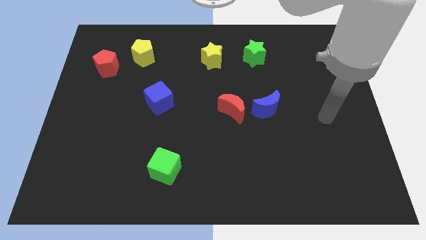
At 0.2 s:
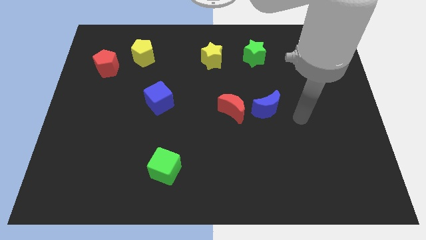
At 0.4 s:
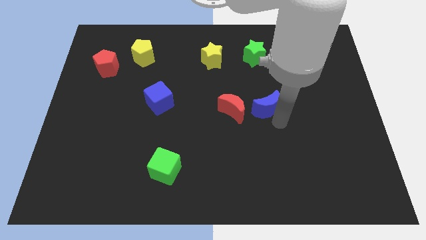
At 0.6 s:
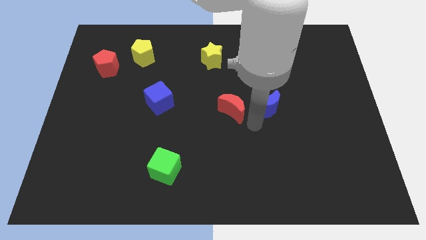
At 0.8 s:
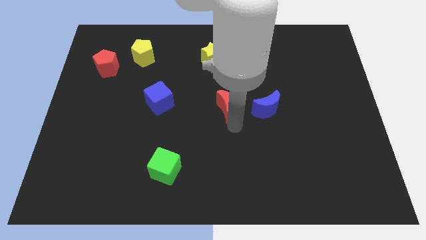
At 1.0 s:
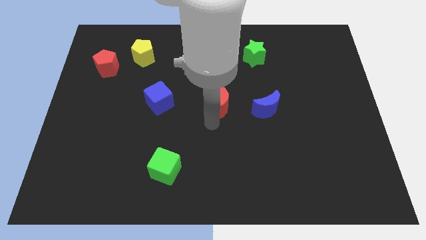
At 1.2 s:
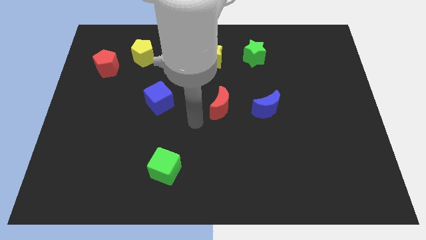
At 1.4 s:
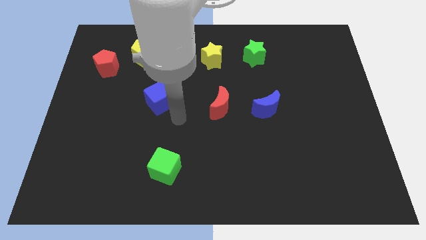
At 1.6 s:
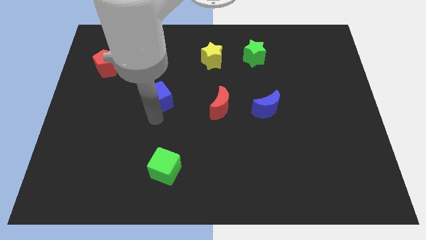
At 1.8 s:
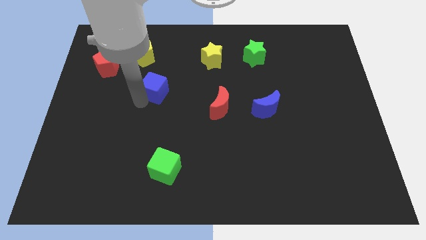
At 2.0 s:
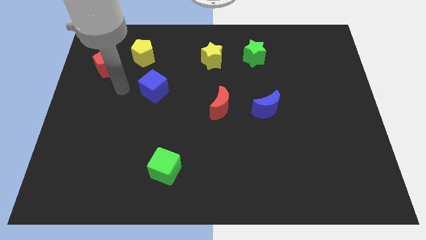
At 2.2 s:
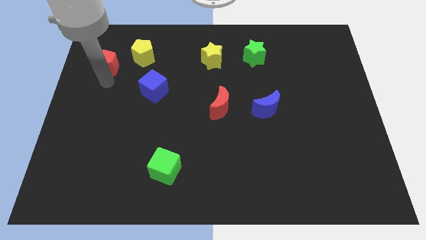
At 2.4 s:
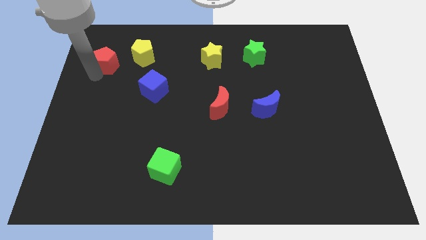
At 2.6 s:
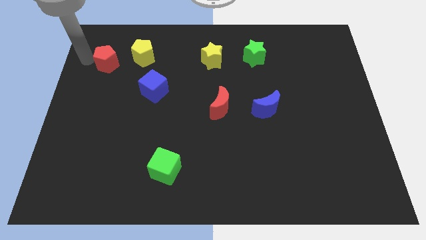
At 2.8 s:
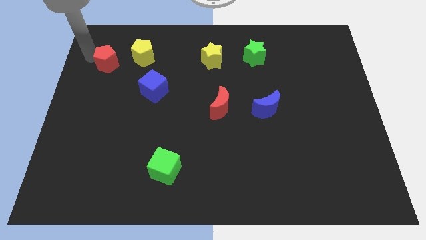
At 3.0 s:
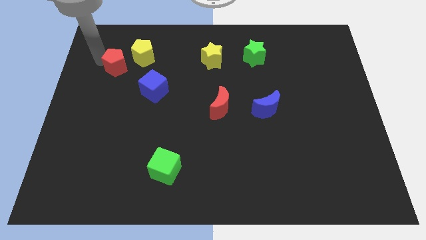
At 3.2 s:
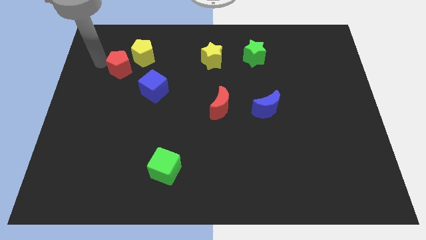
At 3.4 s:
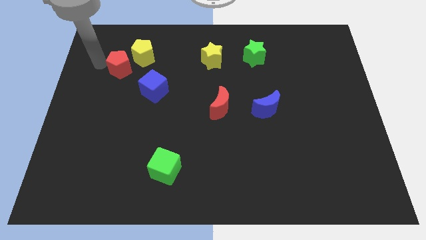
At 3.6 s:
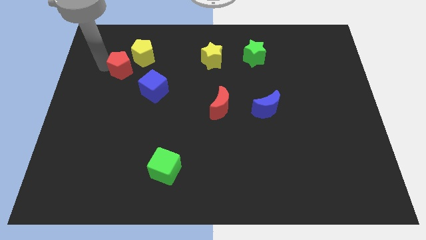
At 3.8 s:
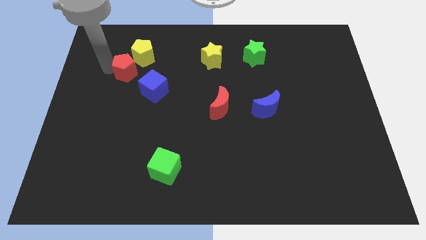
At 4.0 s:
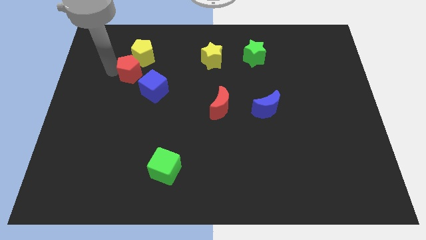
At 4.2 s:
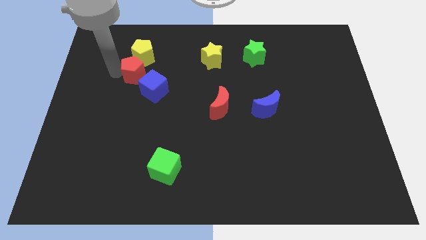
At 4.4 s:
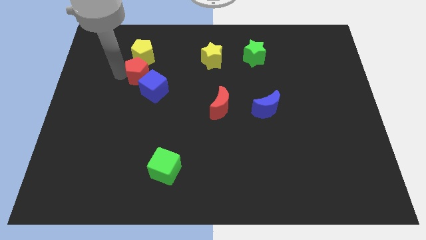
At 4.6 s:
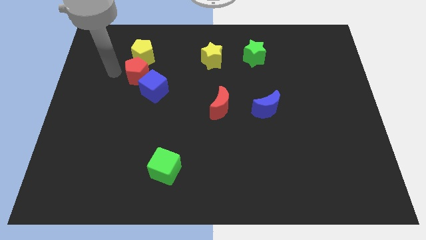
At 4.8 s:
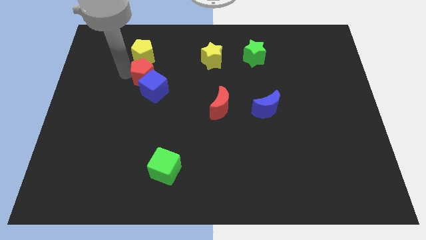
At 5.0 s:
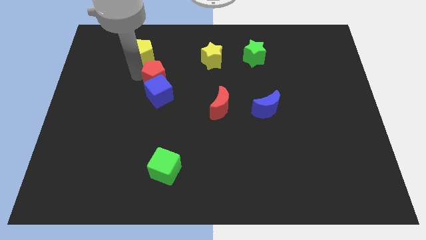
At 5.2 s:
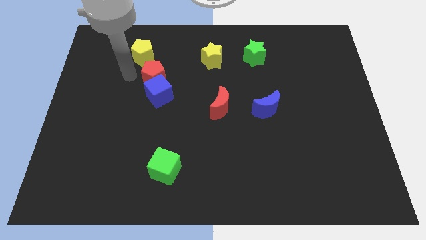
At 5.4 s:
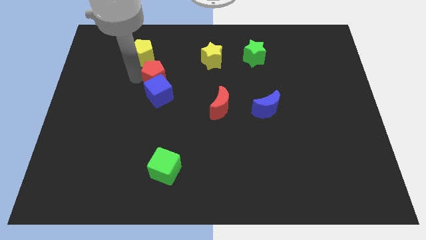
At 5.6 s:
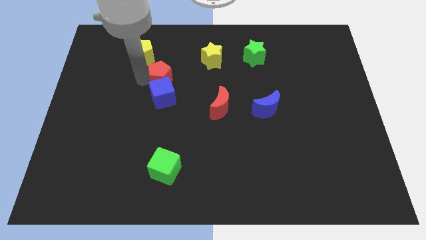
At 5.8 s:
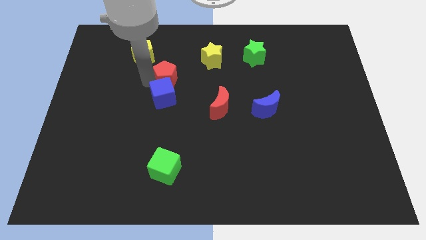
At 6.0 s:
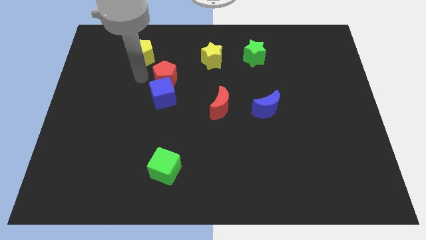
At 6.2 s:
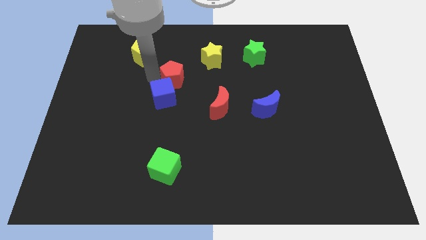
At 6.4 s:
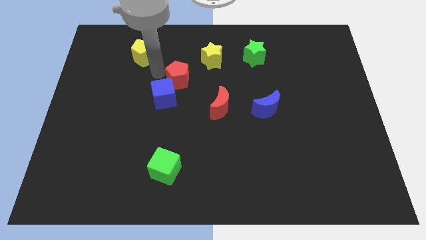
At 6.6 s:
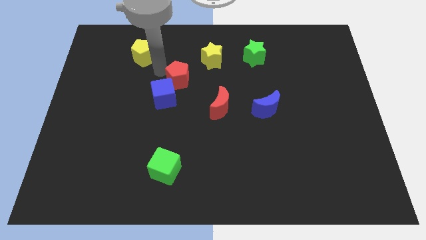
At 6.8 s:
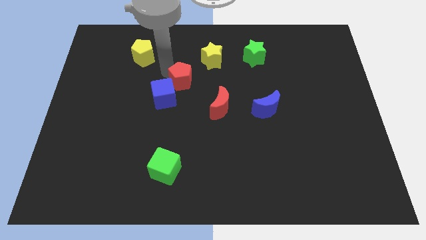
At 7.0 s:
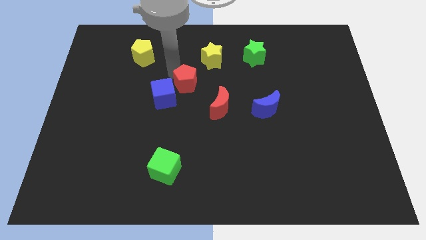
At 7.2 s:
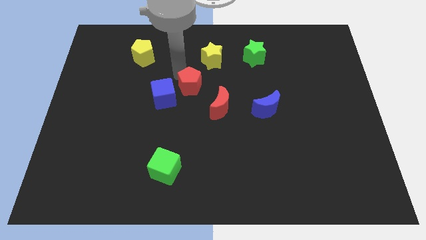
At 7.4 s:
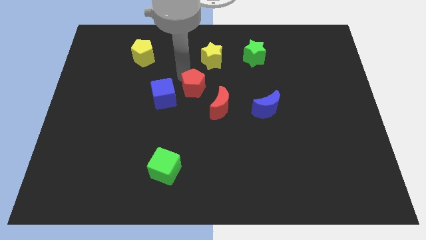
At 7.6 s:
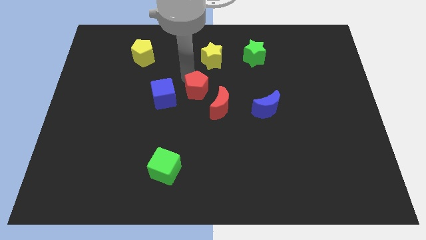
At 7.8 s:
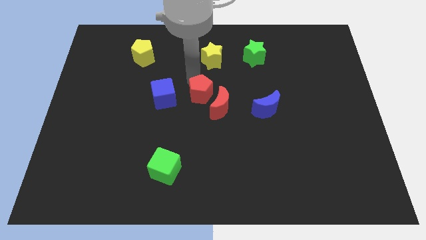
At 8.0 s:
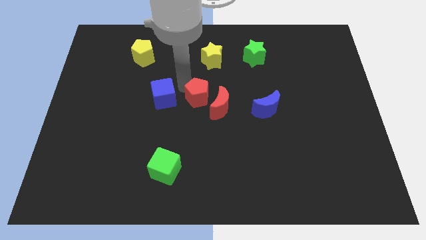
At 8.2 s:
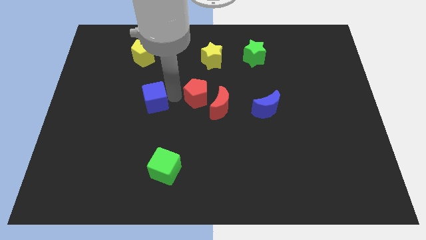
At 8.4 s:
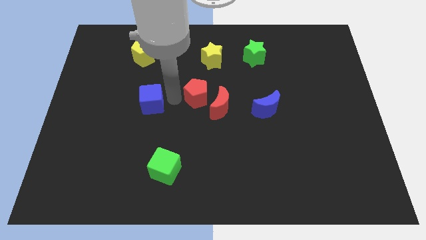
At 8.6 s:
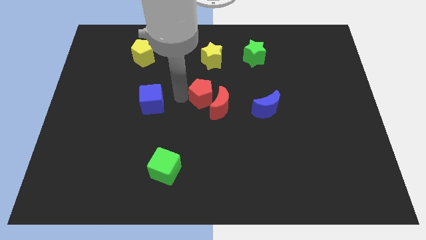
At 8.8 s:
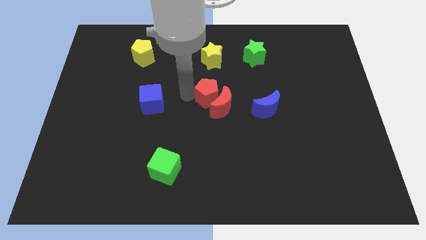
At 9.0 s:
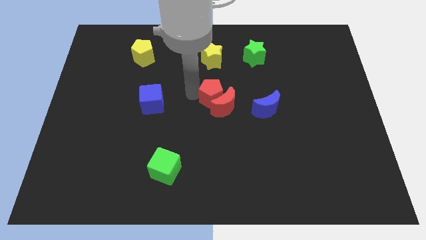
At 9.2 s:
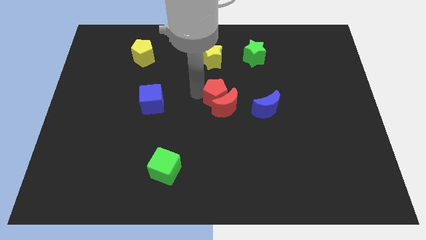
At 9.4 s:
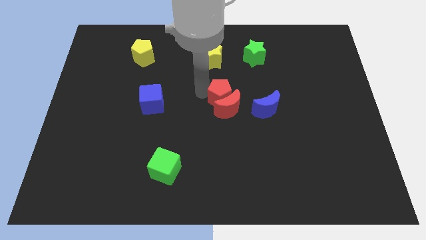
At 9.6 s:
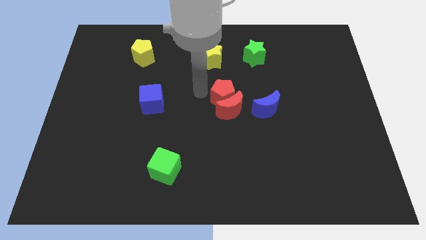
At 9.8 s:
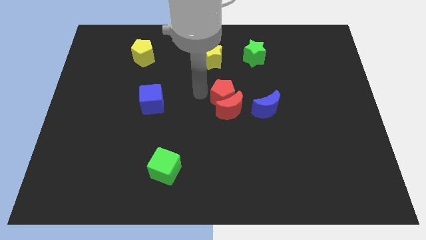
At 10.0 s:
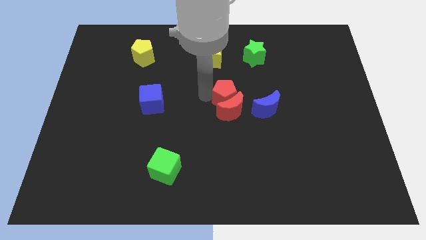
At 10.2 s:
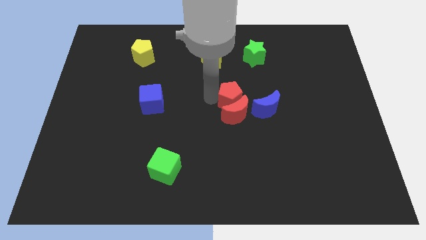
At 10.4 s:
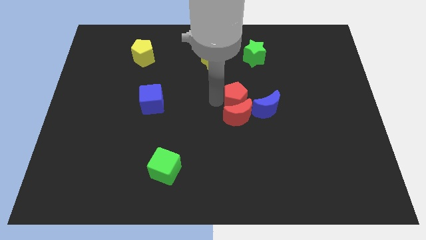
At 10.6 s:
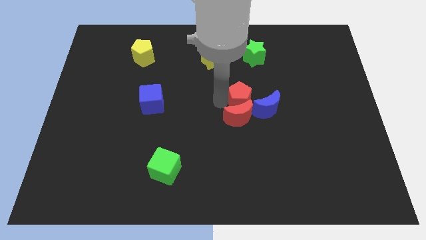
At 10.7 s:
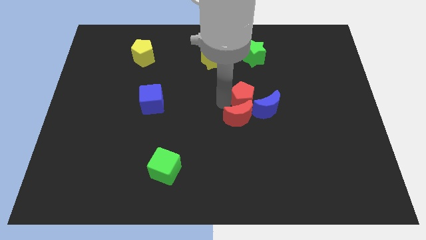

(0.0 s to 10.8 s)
move the red pentagon towards the blue moon

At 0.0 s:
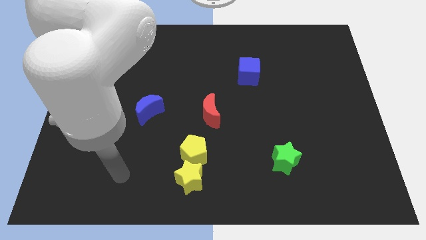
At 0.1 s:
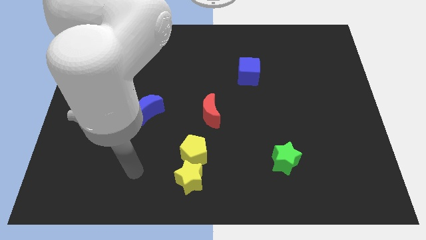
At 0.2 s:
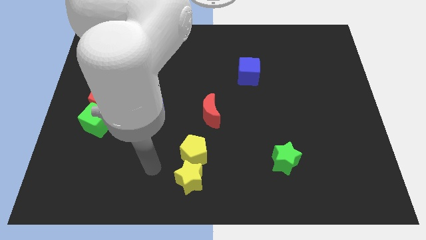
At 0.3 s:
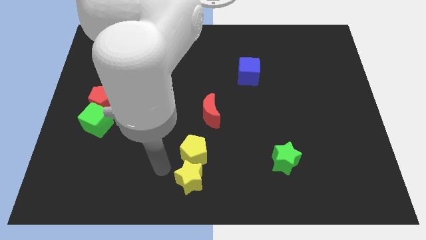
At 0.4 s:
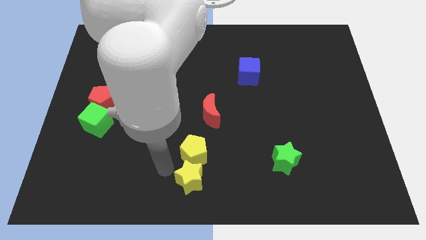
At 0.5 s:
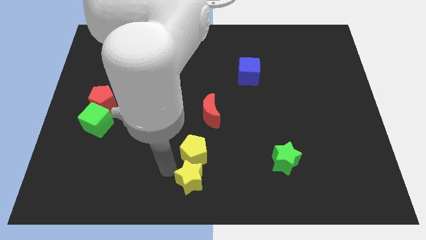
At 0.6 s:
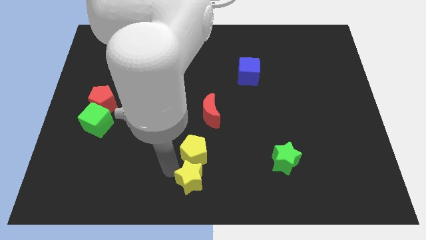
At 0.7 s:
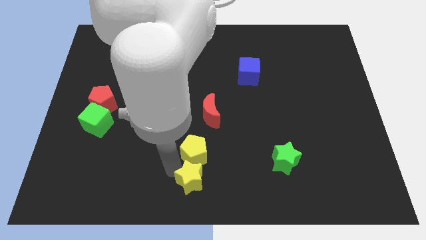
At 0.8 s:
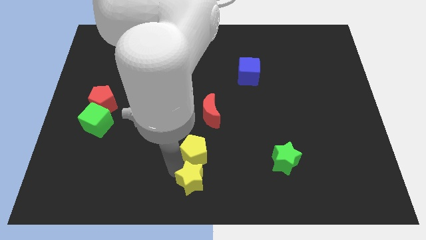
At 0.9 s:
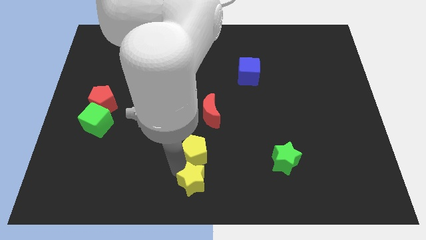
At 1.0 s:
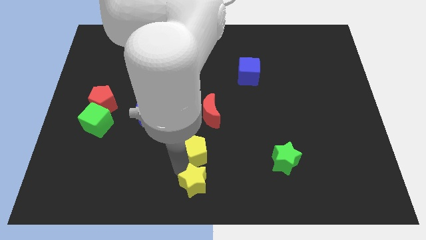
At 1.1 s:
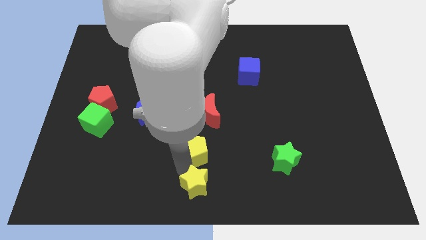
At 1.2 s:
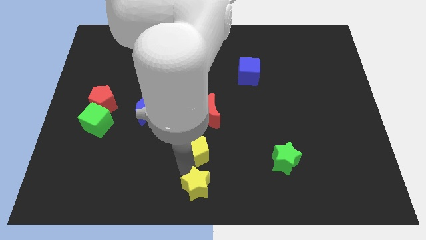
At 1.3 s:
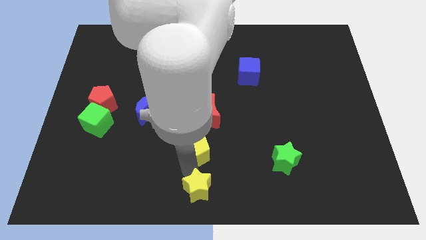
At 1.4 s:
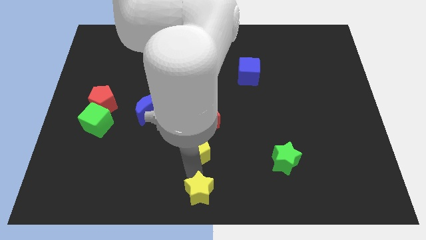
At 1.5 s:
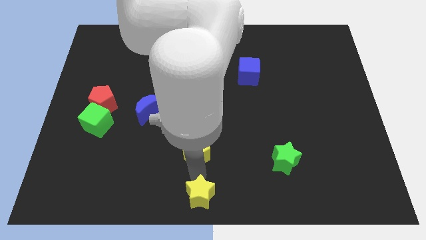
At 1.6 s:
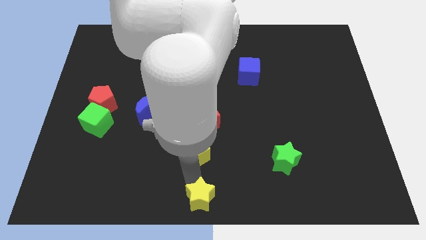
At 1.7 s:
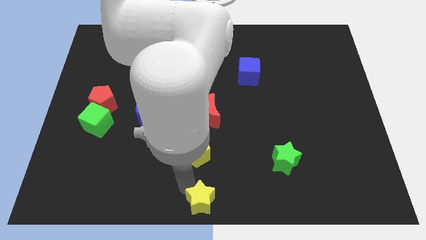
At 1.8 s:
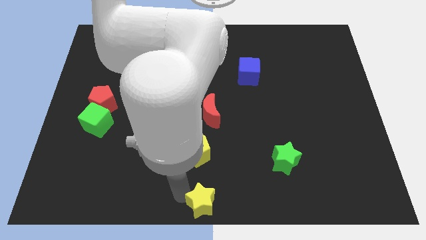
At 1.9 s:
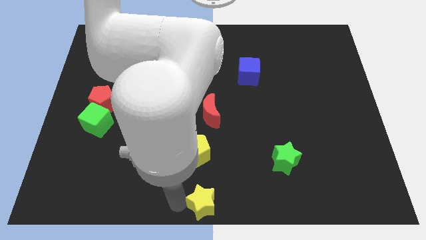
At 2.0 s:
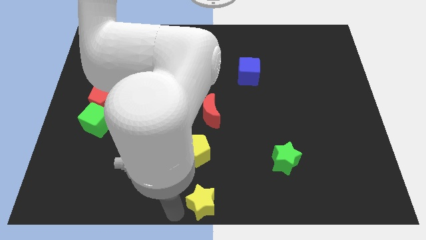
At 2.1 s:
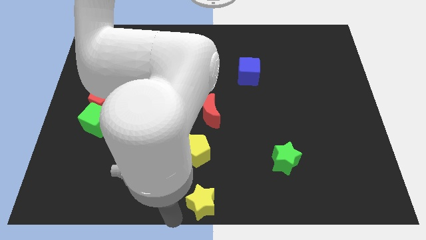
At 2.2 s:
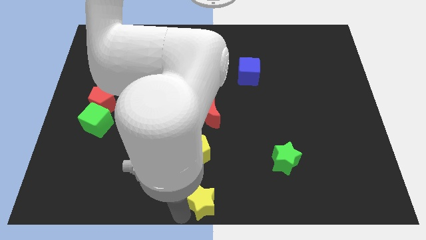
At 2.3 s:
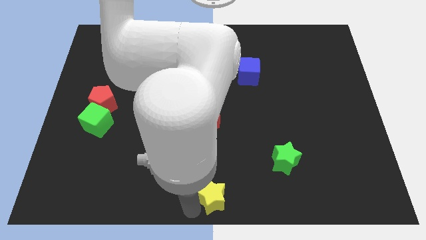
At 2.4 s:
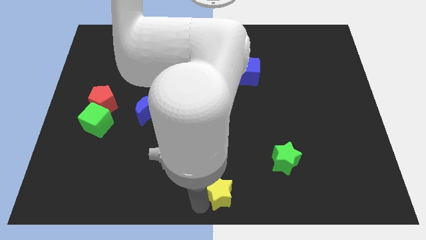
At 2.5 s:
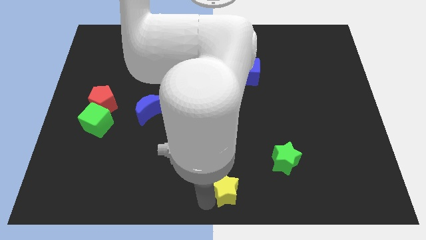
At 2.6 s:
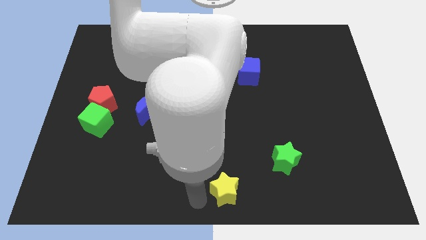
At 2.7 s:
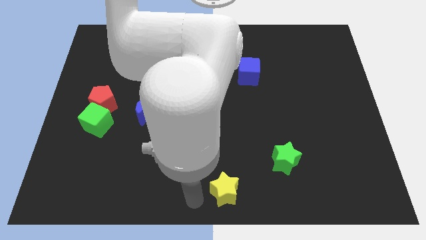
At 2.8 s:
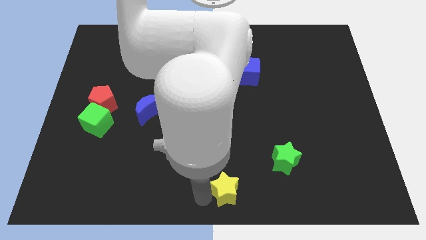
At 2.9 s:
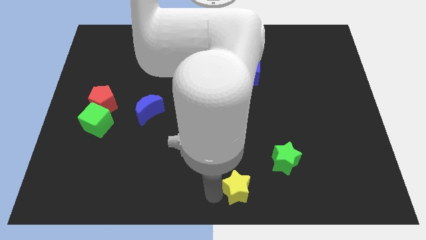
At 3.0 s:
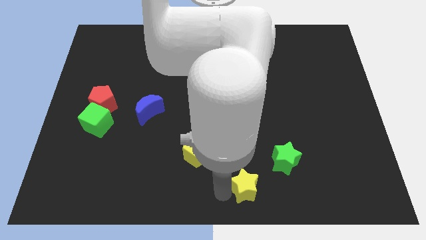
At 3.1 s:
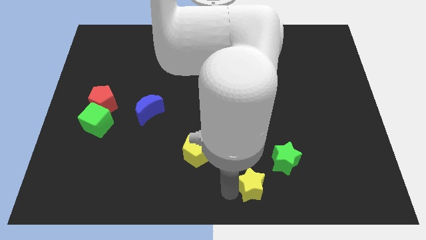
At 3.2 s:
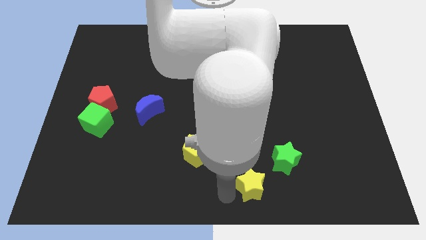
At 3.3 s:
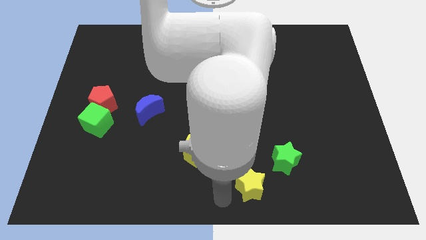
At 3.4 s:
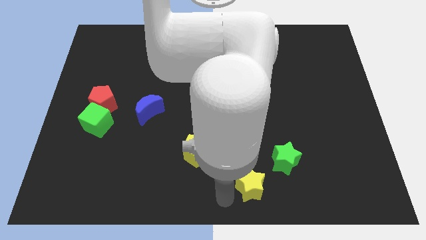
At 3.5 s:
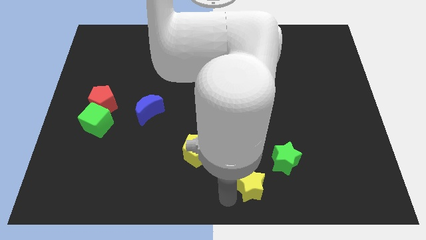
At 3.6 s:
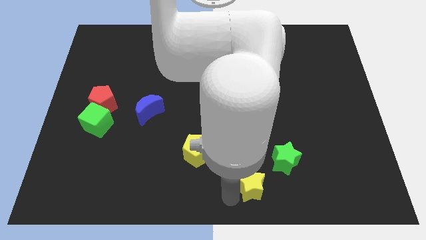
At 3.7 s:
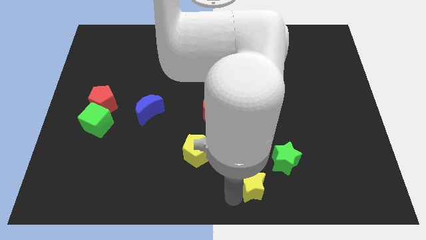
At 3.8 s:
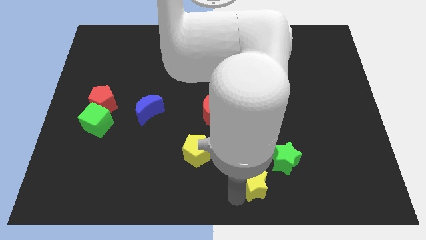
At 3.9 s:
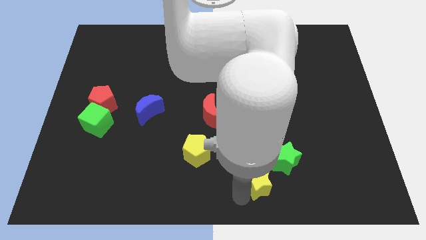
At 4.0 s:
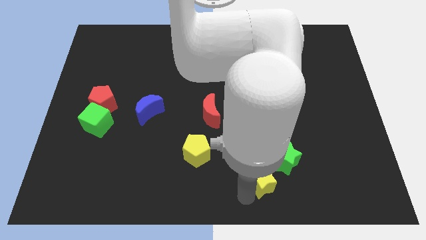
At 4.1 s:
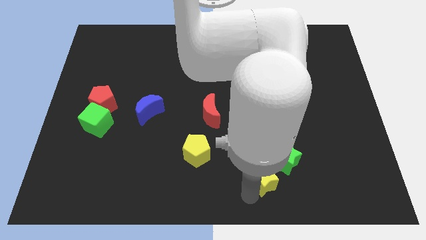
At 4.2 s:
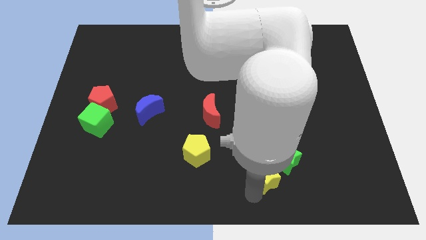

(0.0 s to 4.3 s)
put the yellow star towards the green star
